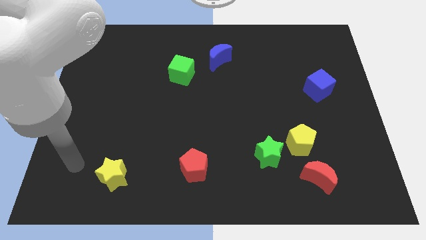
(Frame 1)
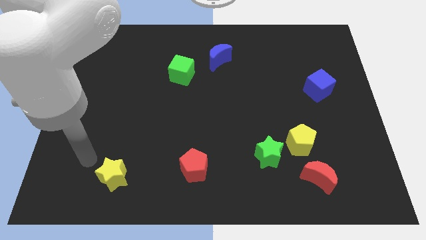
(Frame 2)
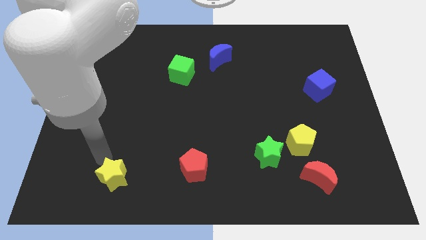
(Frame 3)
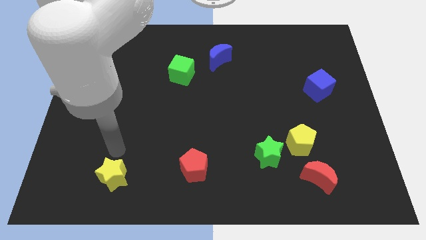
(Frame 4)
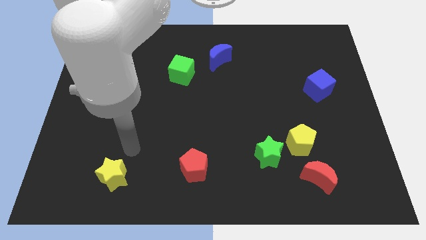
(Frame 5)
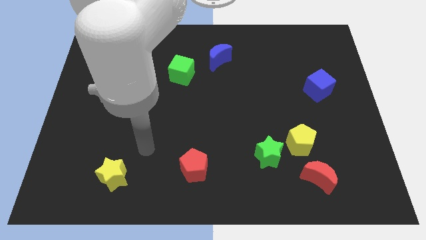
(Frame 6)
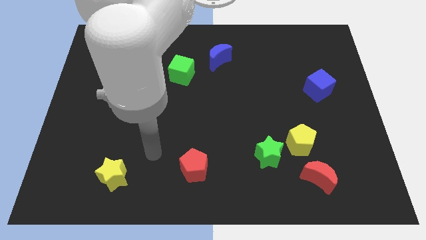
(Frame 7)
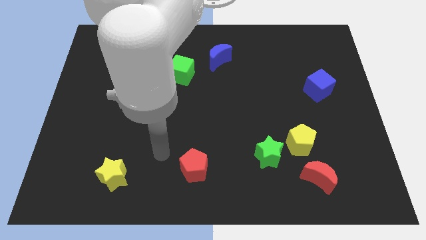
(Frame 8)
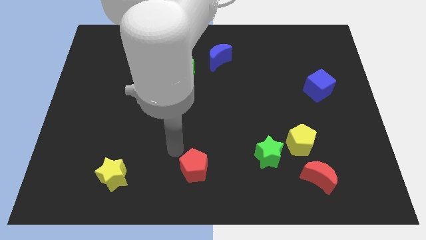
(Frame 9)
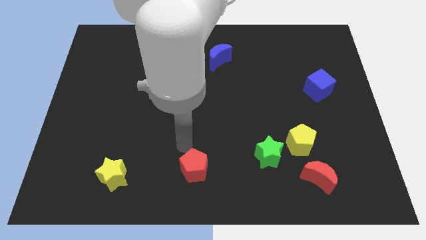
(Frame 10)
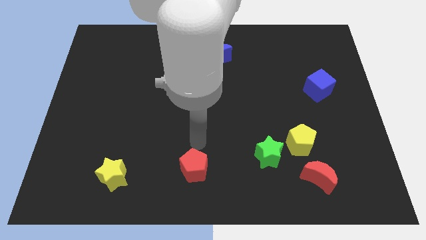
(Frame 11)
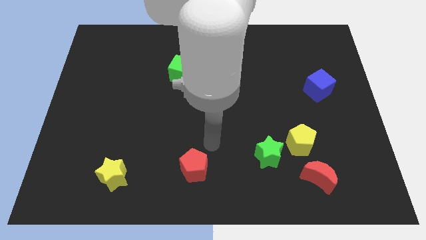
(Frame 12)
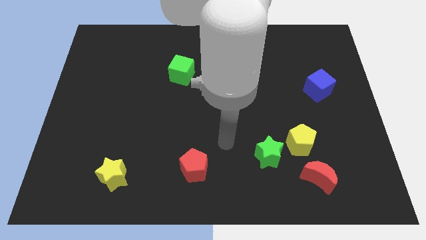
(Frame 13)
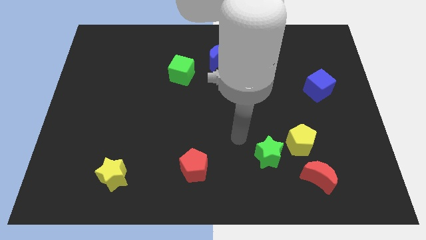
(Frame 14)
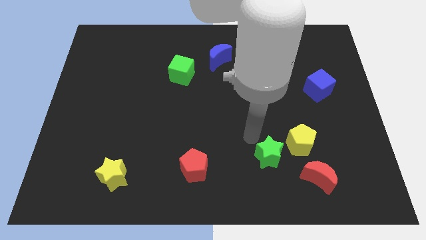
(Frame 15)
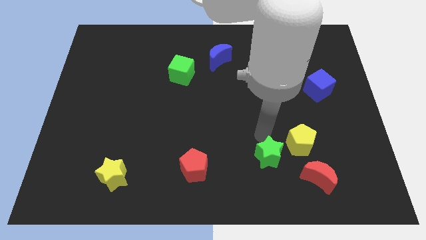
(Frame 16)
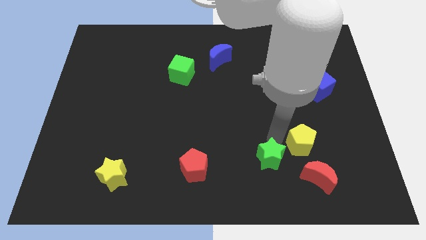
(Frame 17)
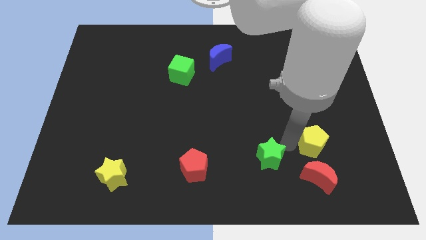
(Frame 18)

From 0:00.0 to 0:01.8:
pull the green star apart from the yellow pentagon

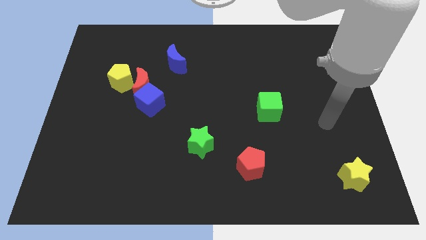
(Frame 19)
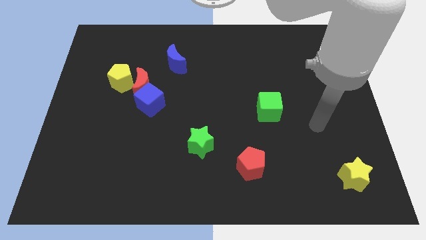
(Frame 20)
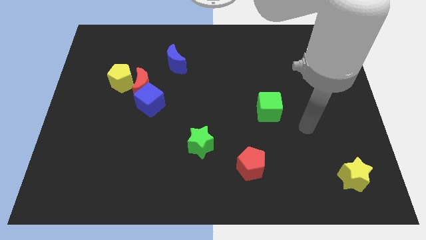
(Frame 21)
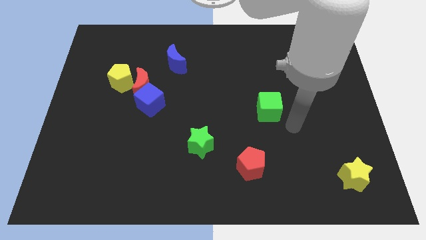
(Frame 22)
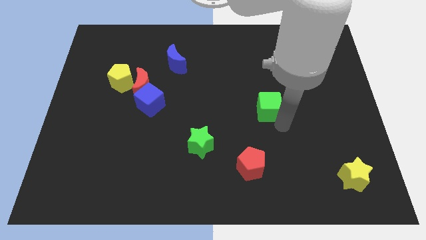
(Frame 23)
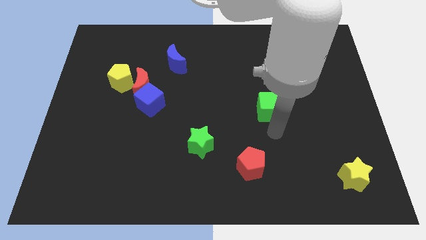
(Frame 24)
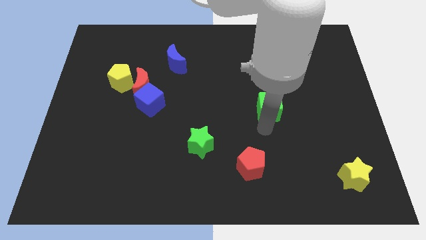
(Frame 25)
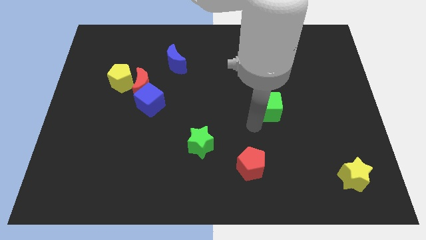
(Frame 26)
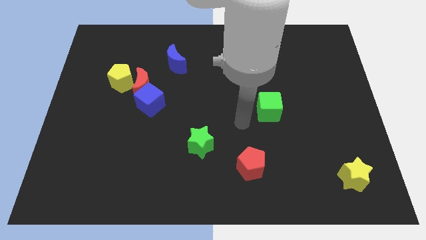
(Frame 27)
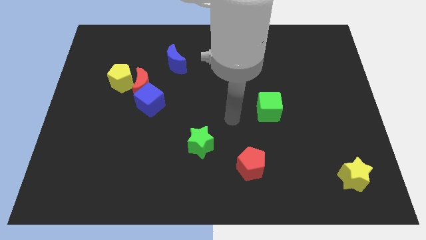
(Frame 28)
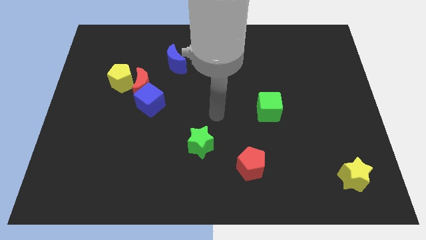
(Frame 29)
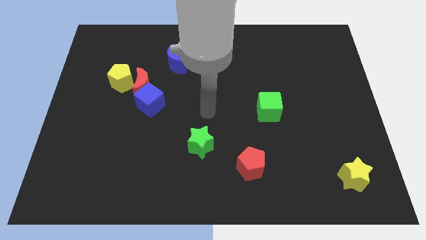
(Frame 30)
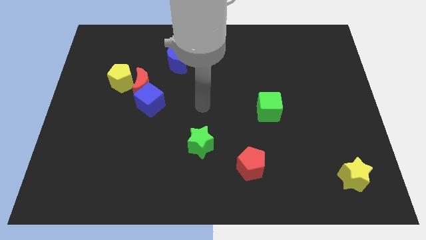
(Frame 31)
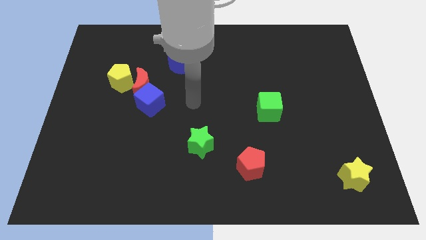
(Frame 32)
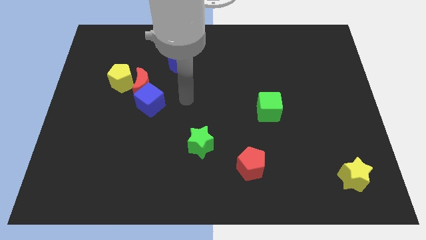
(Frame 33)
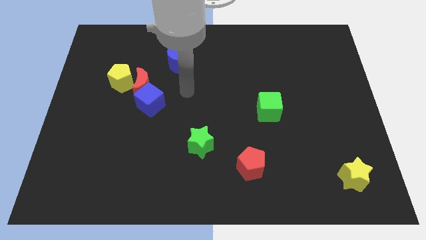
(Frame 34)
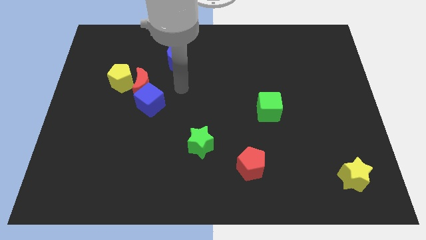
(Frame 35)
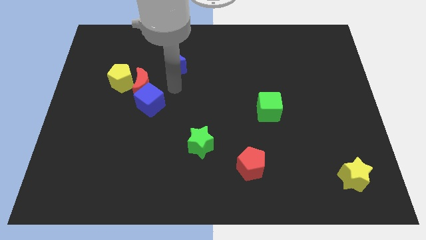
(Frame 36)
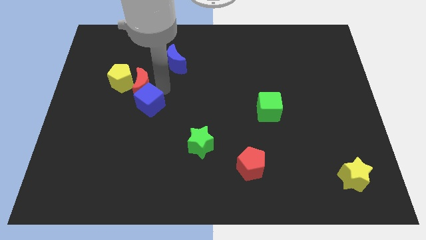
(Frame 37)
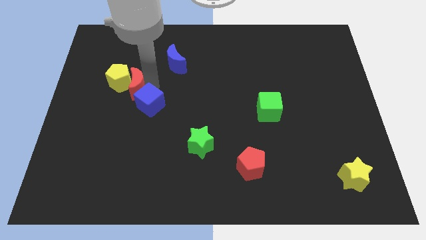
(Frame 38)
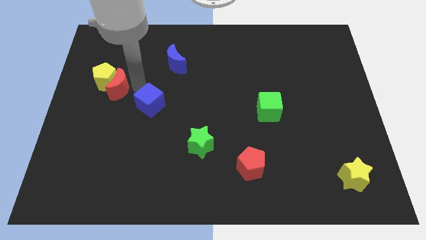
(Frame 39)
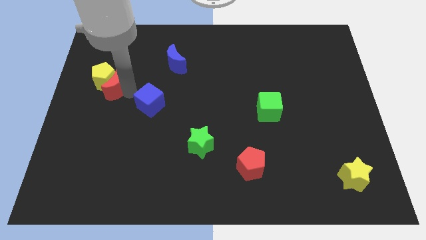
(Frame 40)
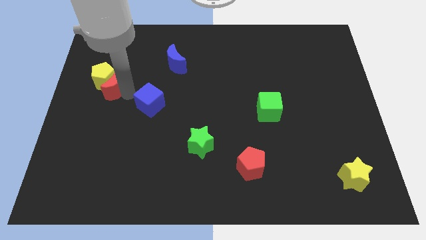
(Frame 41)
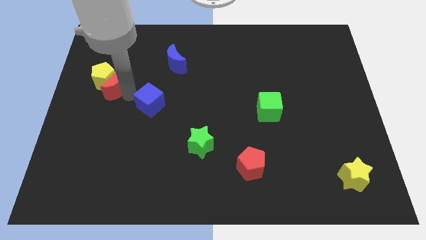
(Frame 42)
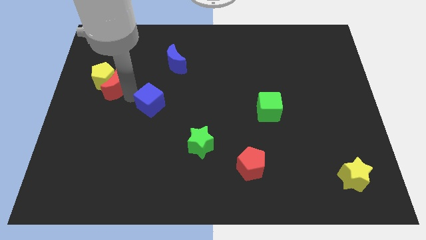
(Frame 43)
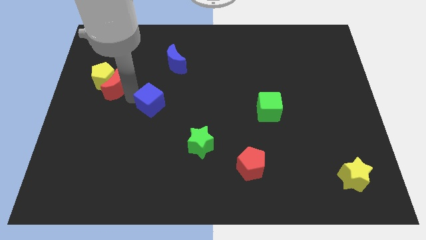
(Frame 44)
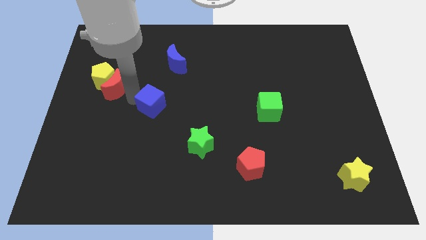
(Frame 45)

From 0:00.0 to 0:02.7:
separate the blue cube from the red moon

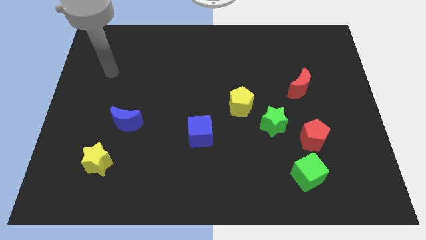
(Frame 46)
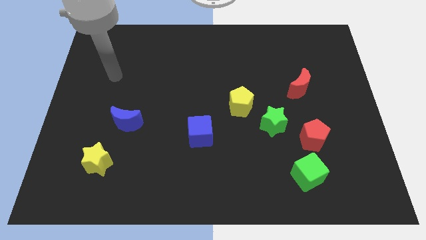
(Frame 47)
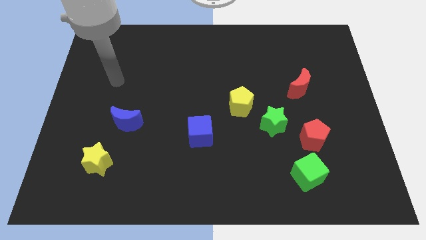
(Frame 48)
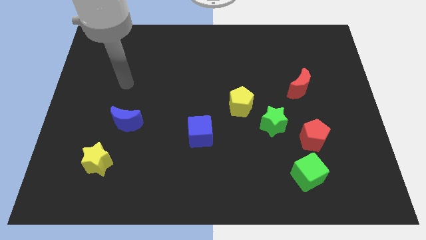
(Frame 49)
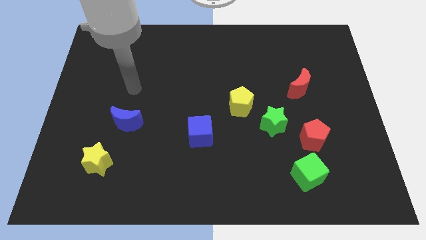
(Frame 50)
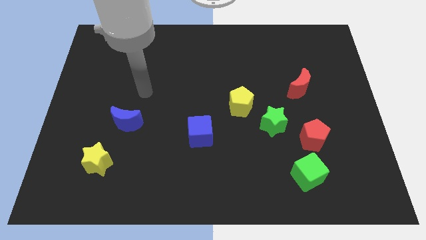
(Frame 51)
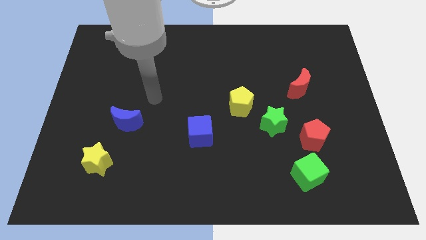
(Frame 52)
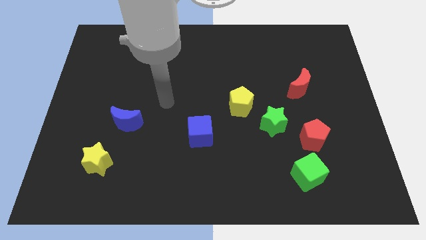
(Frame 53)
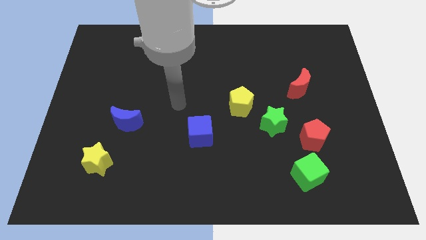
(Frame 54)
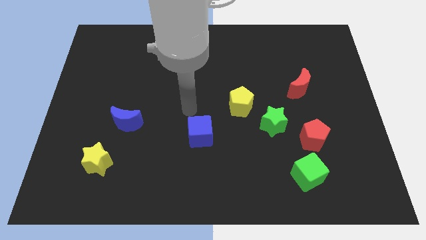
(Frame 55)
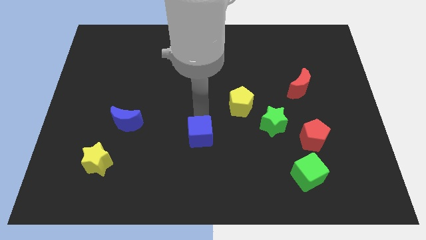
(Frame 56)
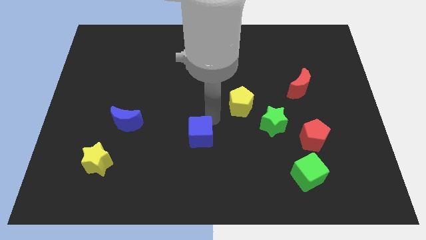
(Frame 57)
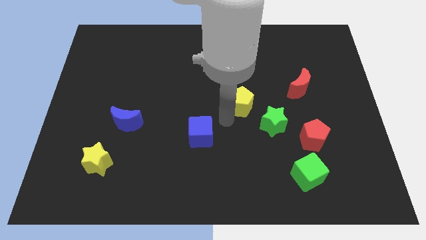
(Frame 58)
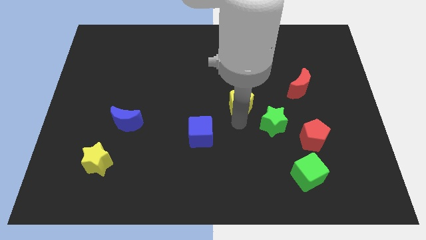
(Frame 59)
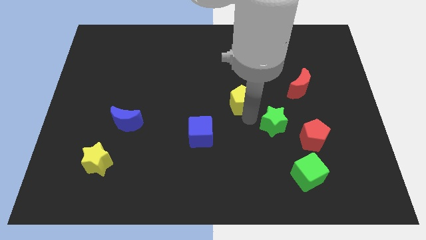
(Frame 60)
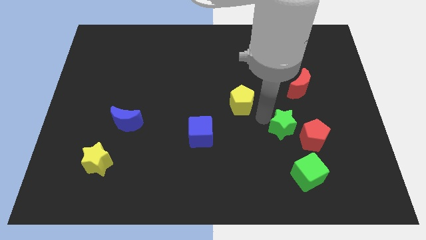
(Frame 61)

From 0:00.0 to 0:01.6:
pull the yellow pentagon apart from the green star

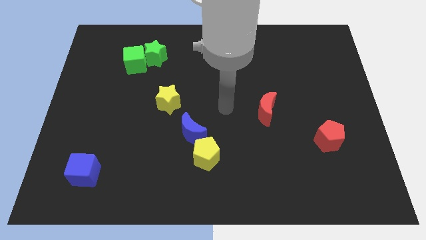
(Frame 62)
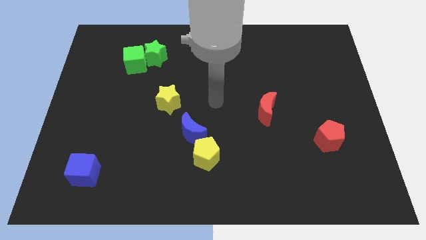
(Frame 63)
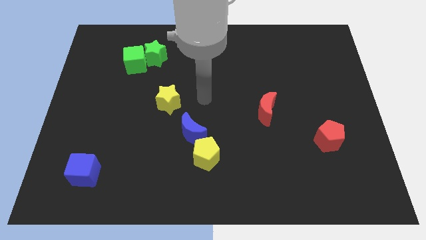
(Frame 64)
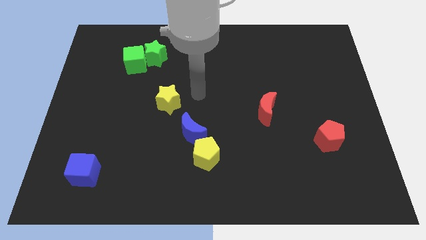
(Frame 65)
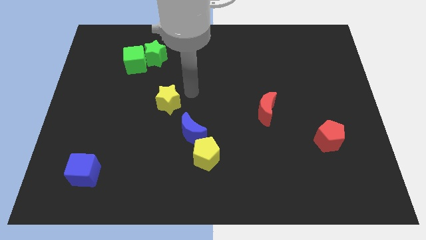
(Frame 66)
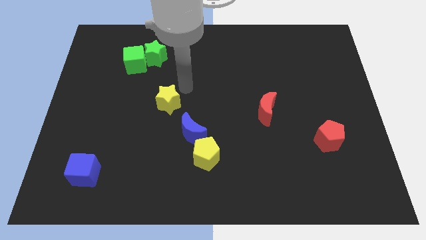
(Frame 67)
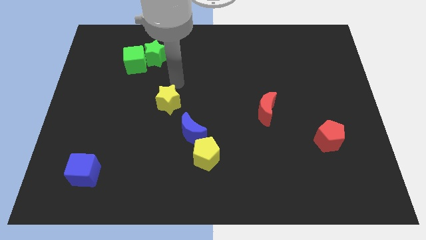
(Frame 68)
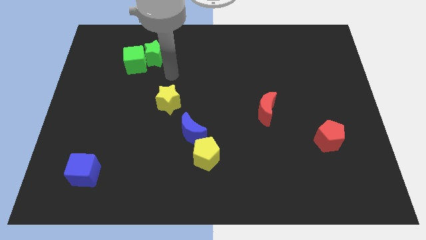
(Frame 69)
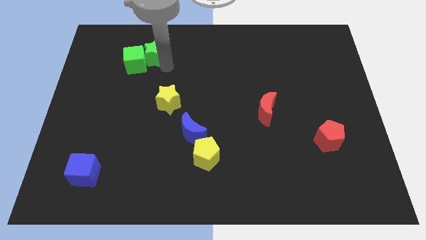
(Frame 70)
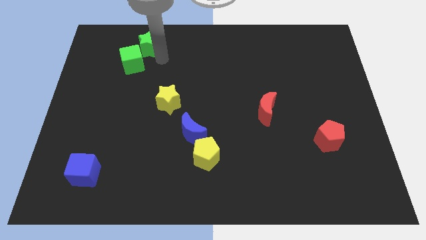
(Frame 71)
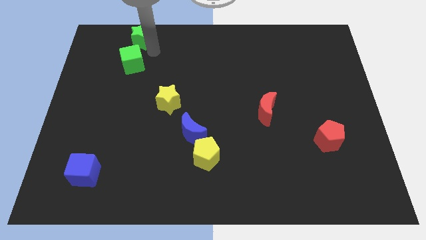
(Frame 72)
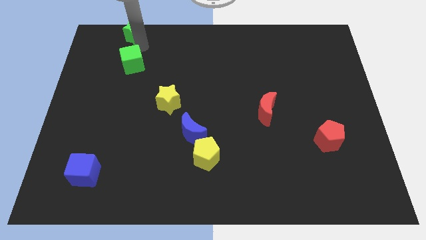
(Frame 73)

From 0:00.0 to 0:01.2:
separate the green cube from the green star

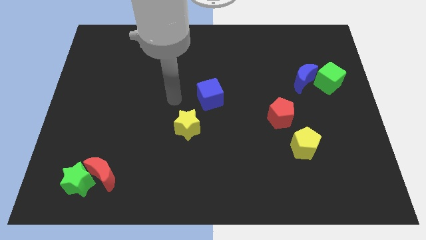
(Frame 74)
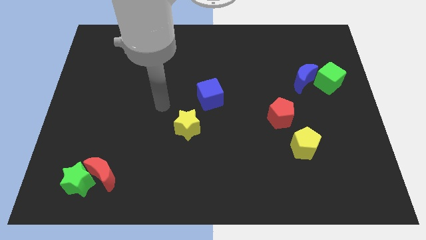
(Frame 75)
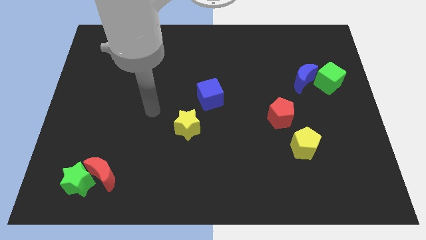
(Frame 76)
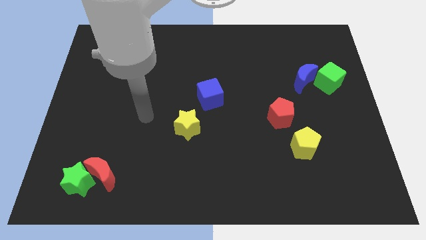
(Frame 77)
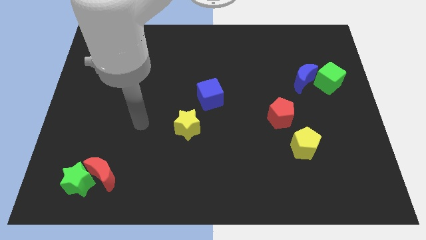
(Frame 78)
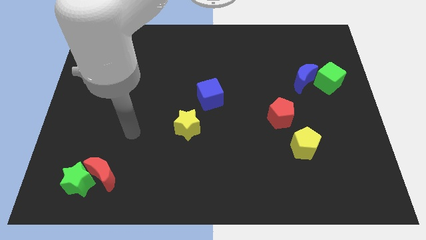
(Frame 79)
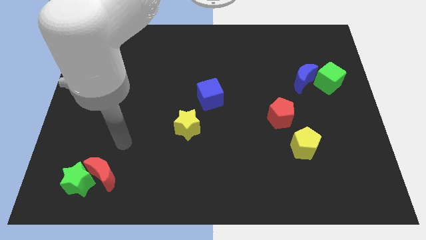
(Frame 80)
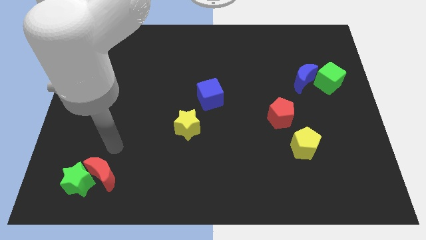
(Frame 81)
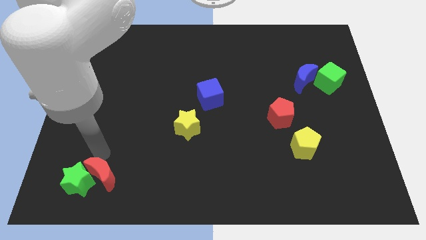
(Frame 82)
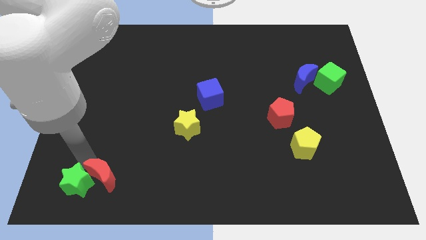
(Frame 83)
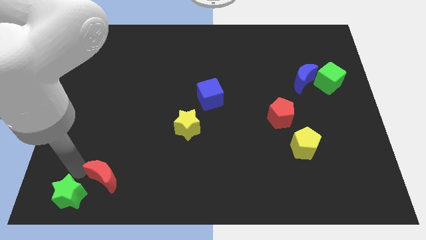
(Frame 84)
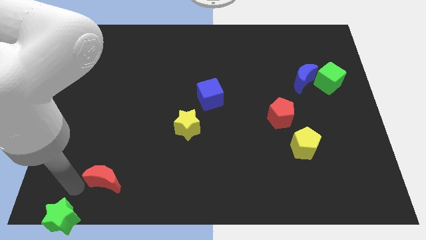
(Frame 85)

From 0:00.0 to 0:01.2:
pull the red moon apart from the green star

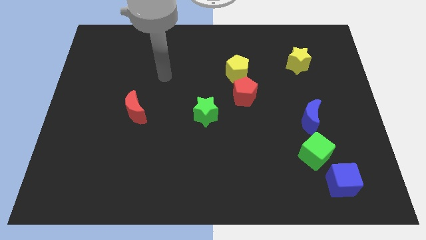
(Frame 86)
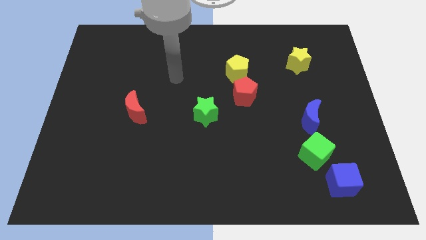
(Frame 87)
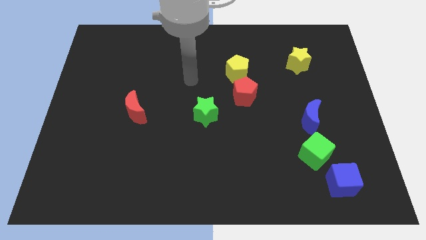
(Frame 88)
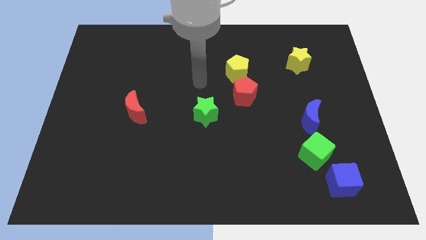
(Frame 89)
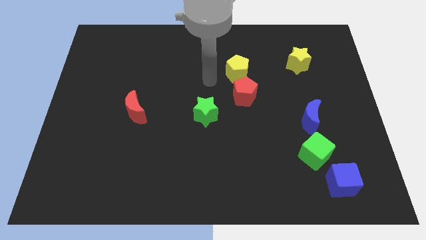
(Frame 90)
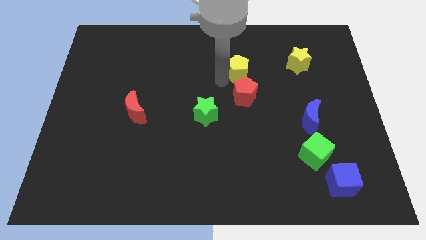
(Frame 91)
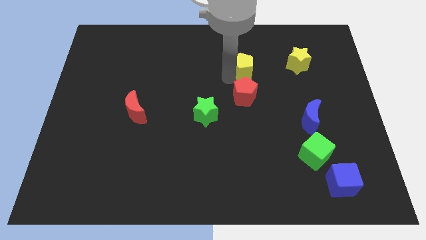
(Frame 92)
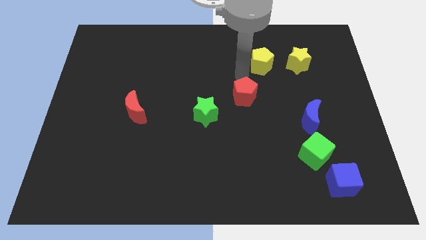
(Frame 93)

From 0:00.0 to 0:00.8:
move the red pentagon away from the yellow pentagon
